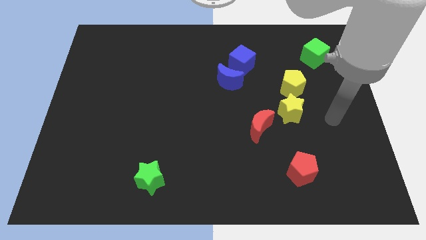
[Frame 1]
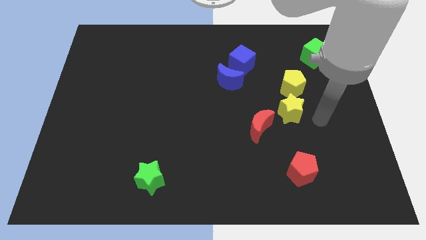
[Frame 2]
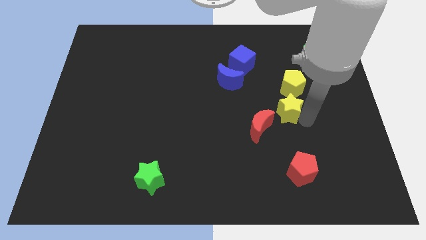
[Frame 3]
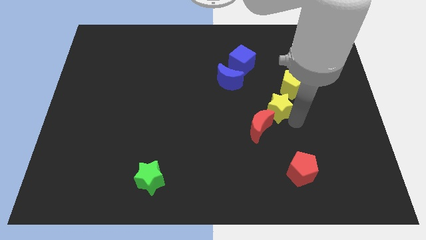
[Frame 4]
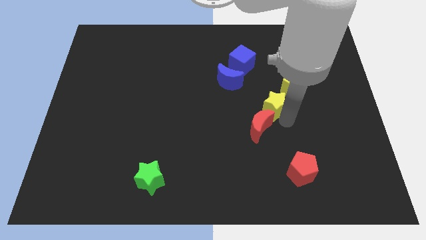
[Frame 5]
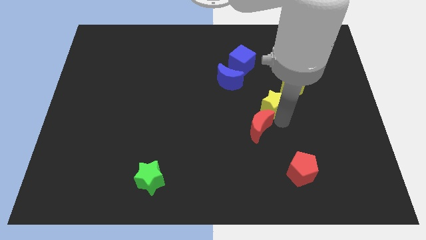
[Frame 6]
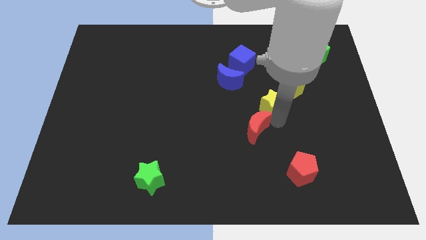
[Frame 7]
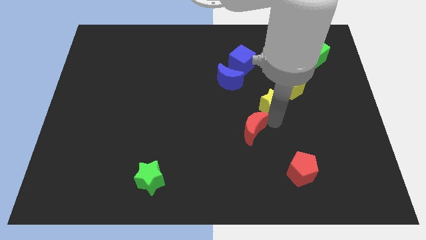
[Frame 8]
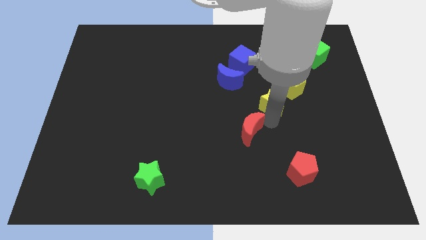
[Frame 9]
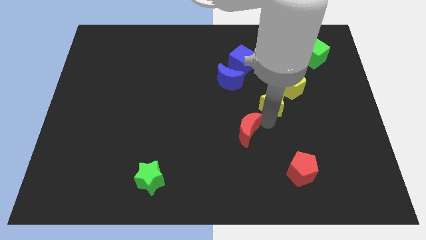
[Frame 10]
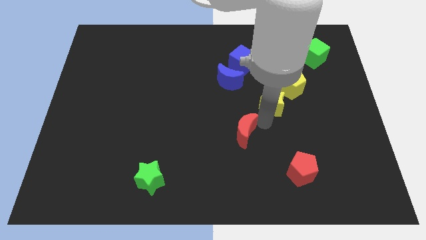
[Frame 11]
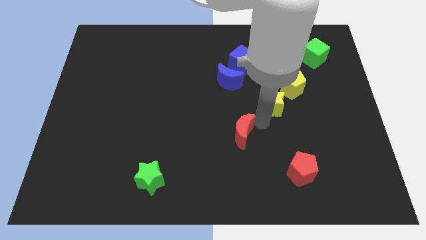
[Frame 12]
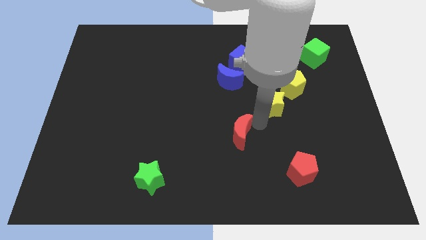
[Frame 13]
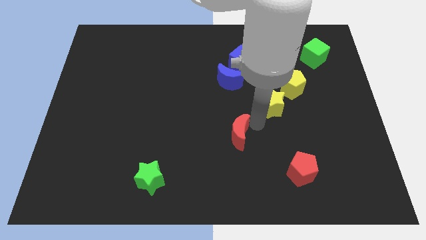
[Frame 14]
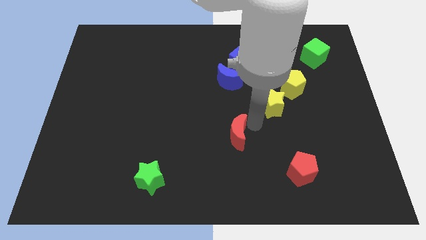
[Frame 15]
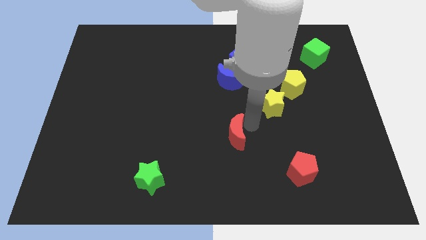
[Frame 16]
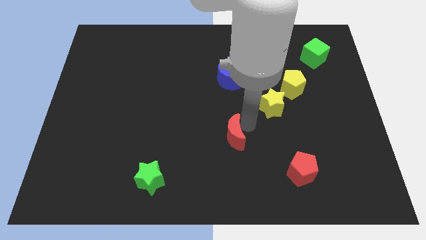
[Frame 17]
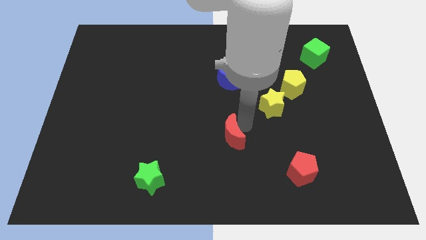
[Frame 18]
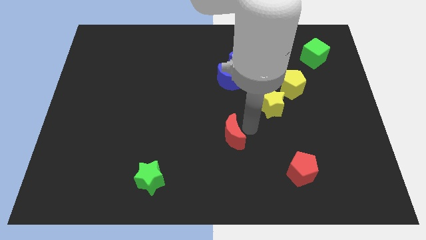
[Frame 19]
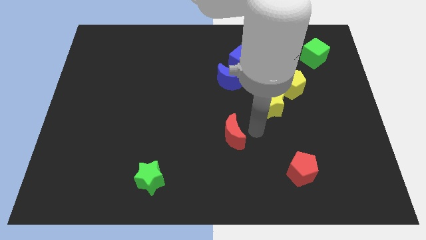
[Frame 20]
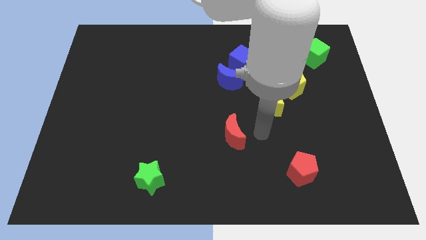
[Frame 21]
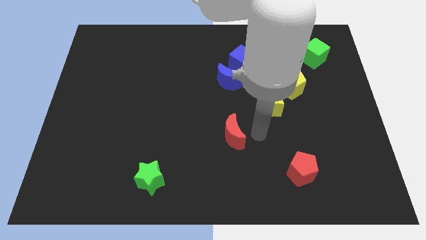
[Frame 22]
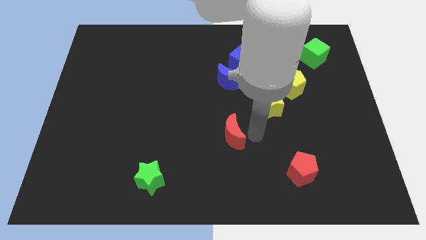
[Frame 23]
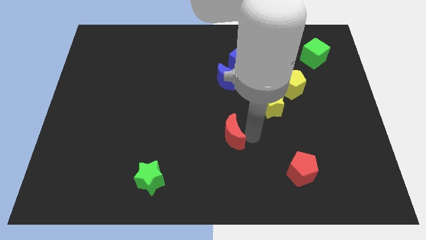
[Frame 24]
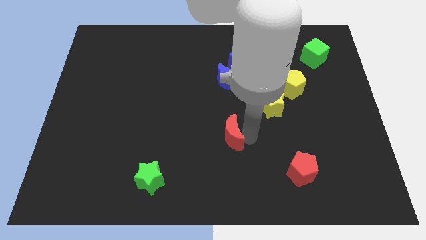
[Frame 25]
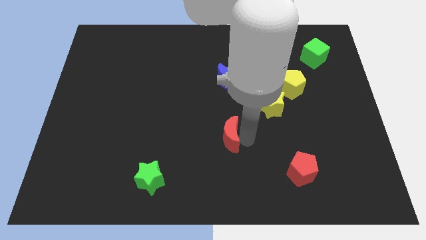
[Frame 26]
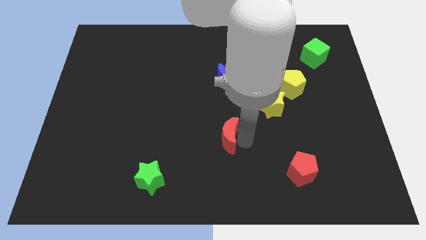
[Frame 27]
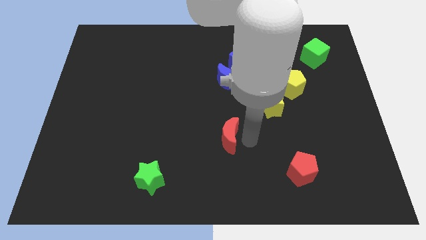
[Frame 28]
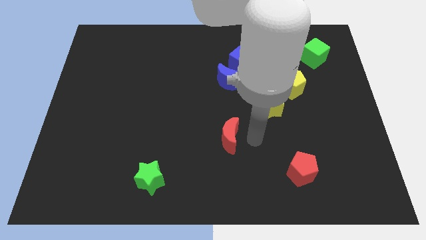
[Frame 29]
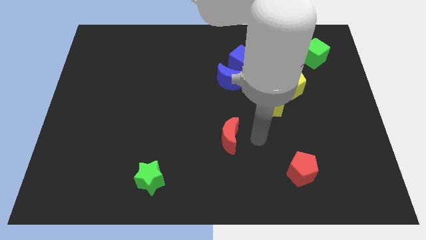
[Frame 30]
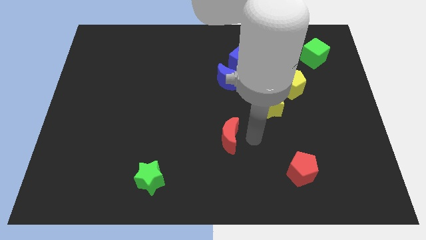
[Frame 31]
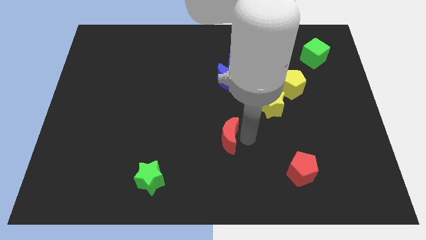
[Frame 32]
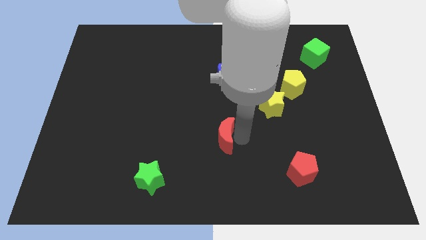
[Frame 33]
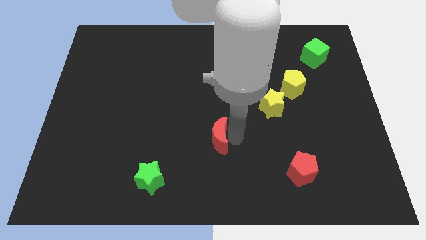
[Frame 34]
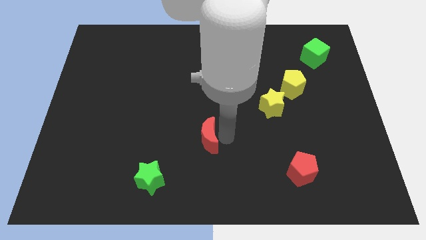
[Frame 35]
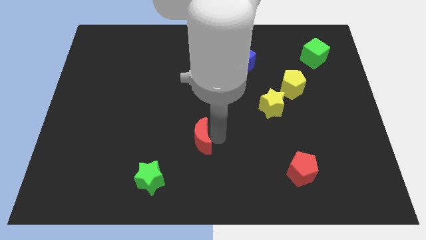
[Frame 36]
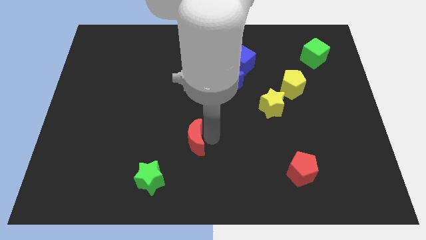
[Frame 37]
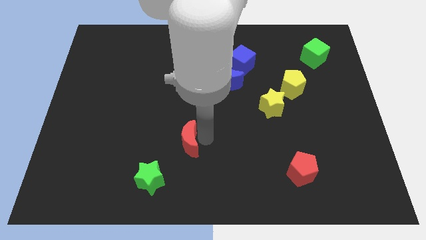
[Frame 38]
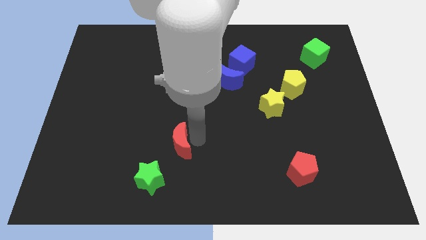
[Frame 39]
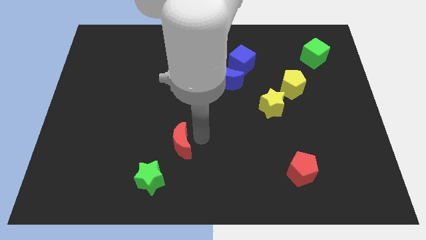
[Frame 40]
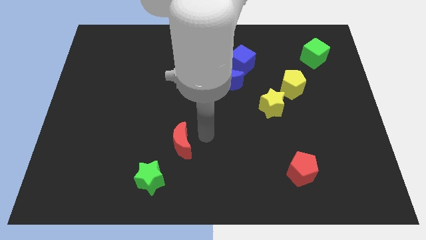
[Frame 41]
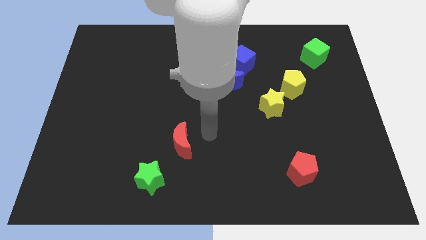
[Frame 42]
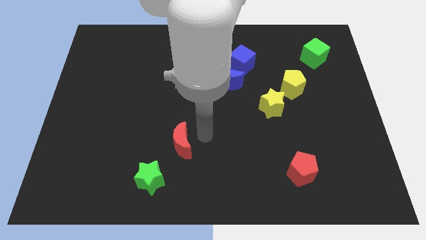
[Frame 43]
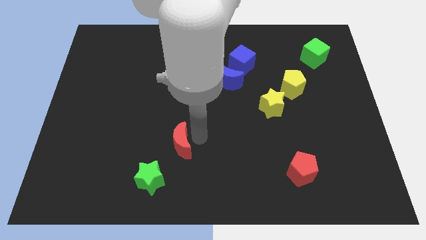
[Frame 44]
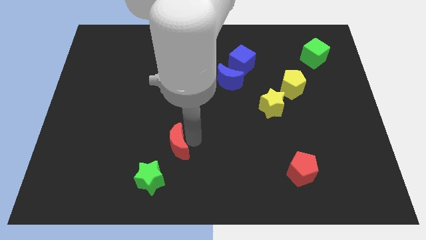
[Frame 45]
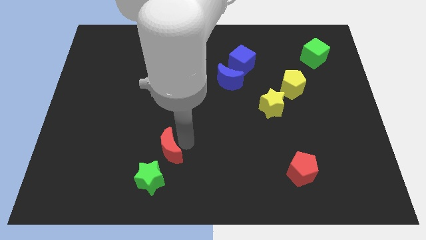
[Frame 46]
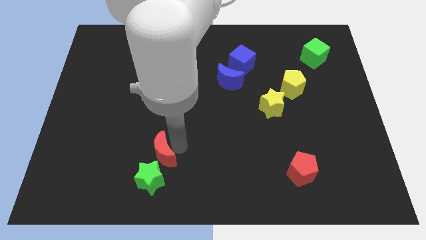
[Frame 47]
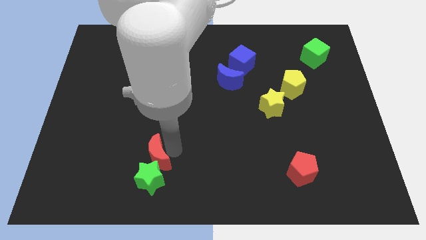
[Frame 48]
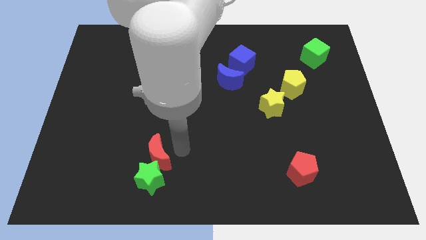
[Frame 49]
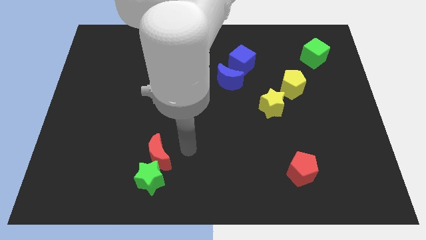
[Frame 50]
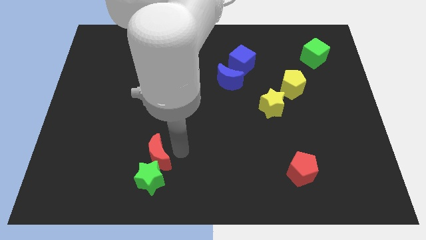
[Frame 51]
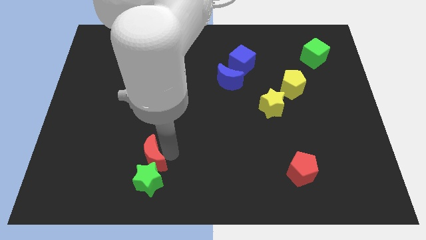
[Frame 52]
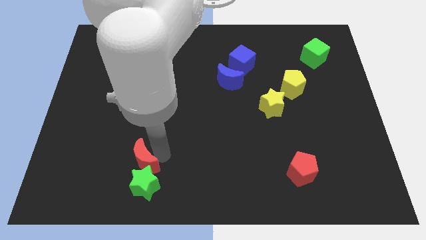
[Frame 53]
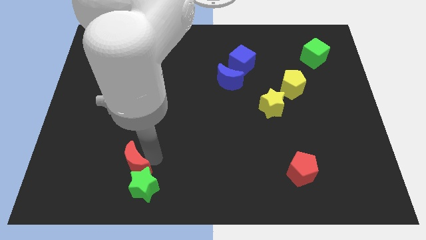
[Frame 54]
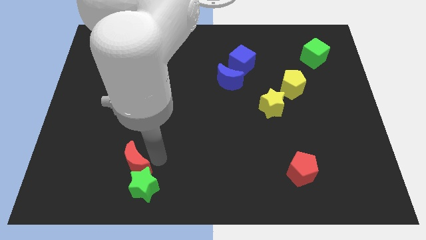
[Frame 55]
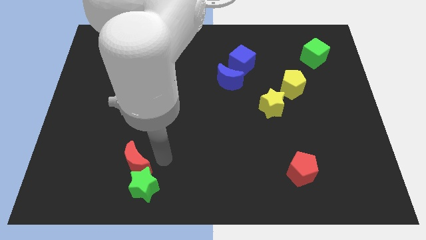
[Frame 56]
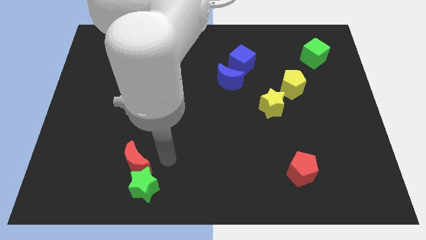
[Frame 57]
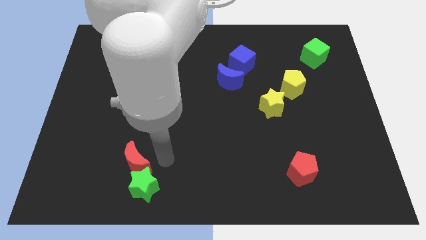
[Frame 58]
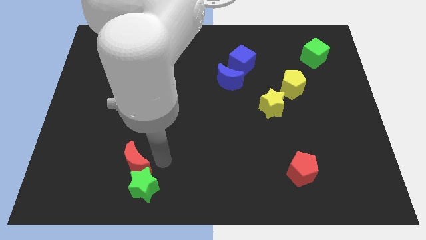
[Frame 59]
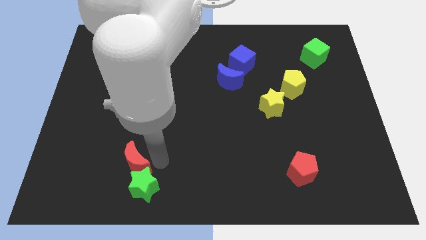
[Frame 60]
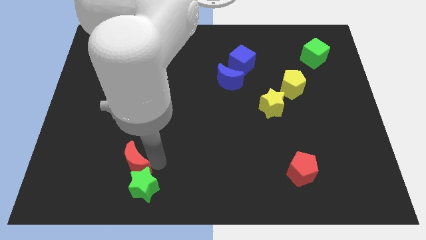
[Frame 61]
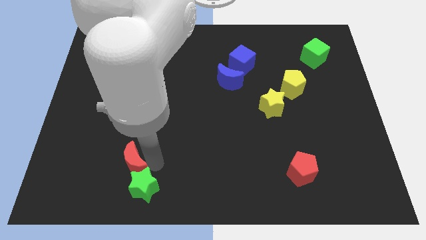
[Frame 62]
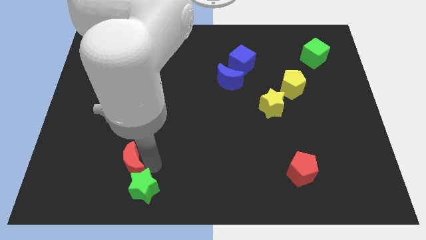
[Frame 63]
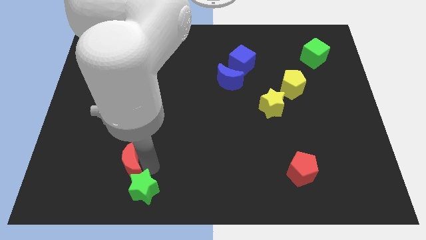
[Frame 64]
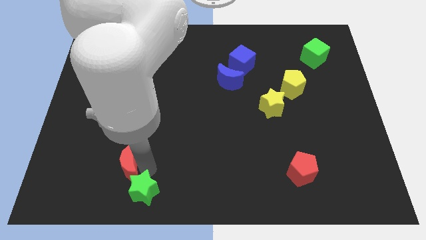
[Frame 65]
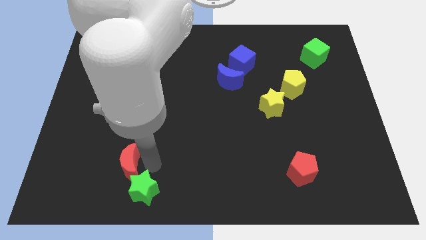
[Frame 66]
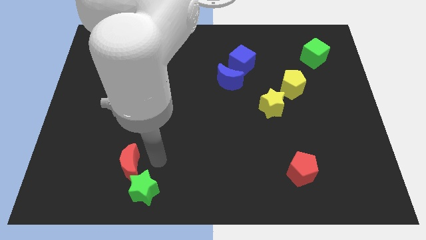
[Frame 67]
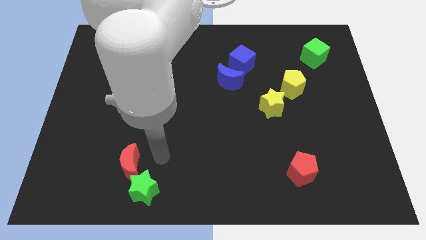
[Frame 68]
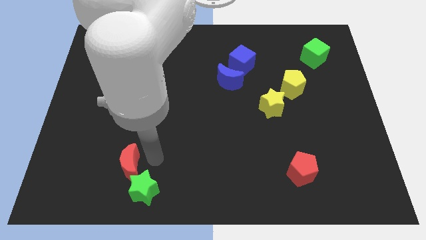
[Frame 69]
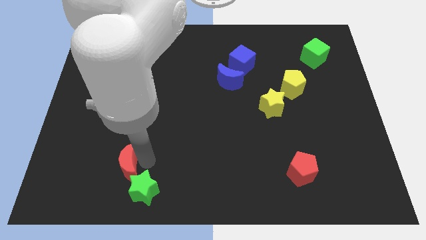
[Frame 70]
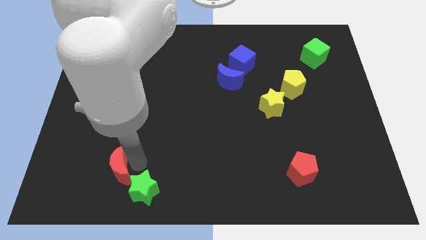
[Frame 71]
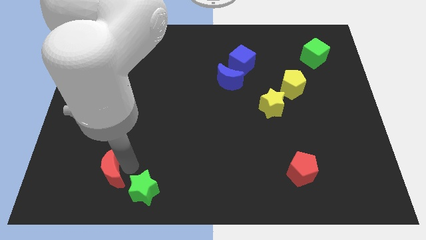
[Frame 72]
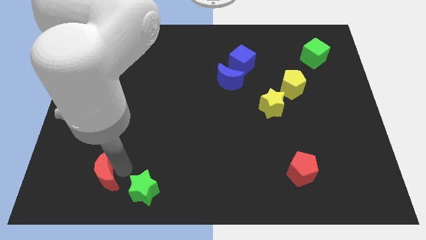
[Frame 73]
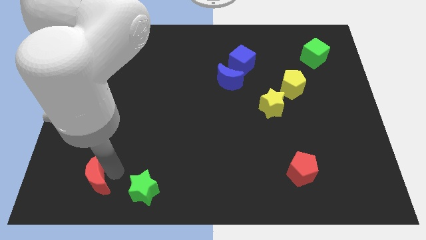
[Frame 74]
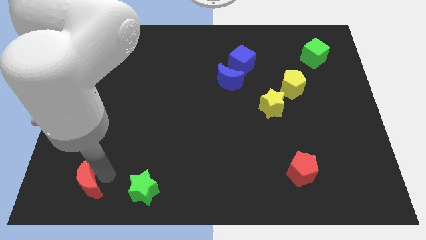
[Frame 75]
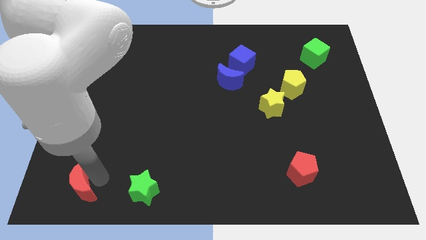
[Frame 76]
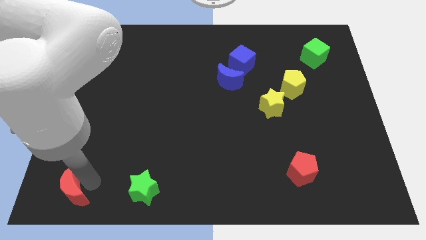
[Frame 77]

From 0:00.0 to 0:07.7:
put the red moon to the bottom left corner
